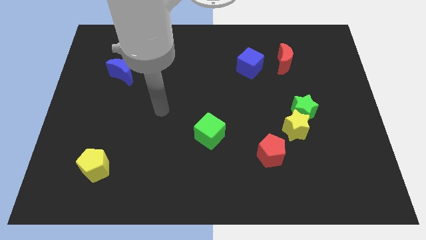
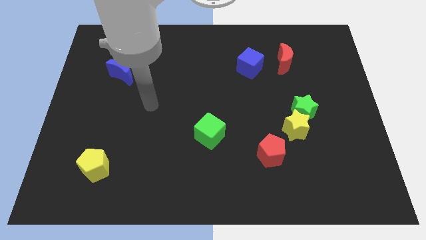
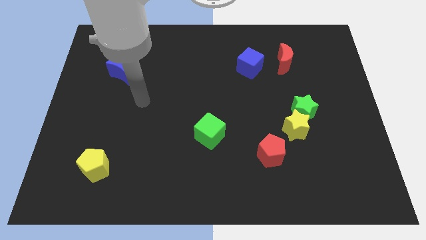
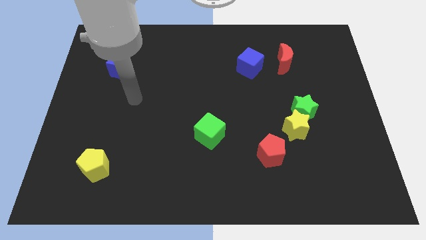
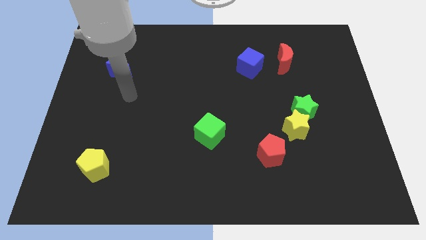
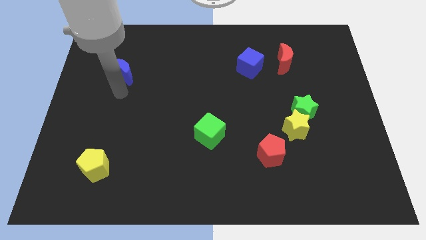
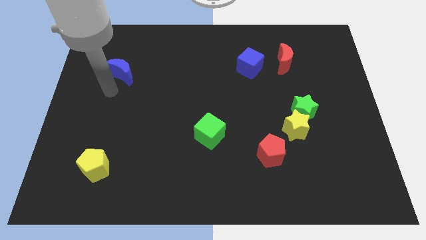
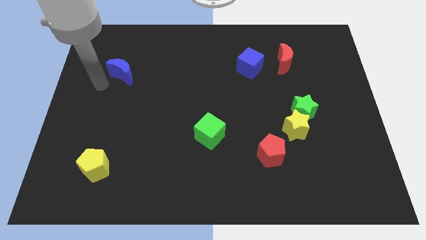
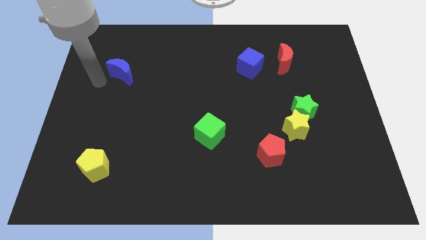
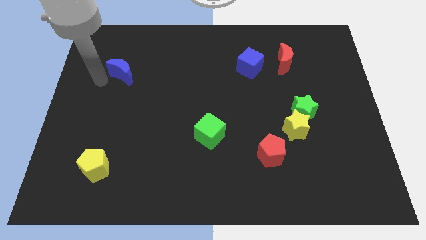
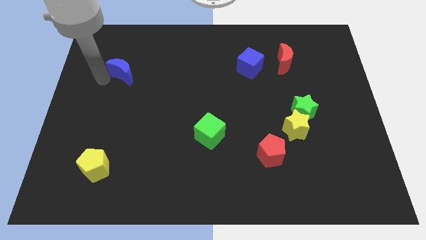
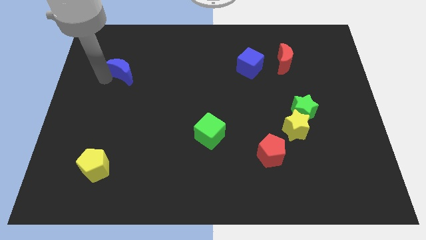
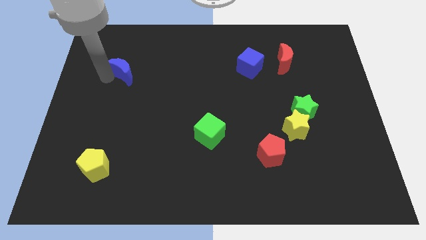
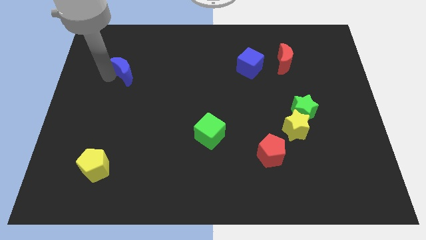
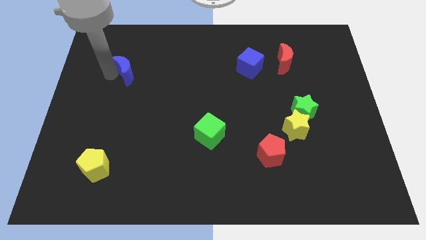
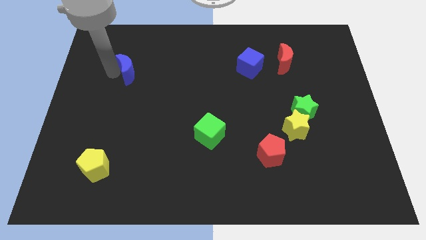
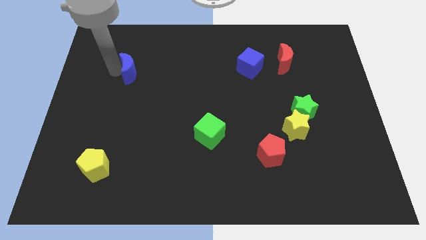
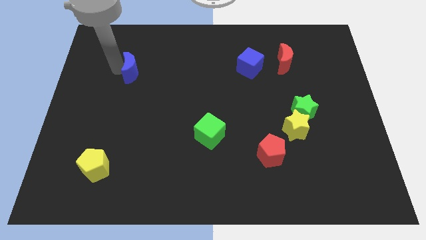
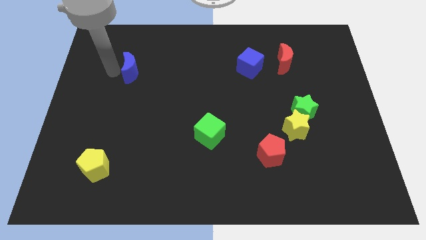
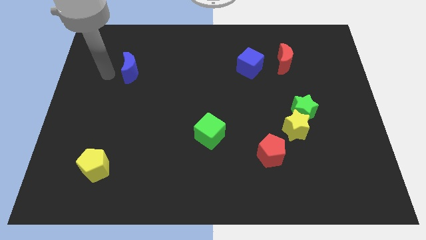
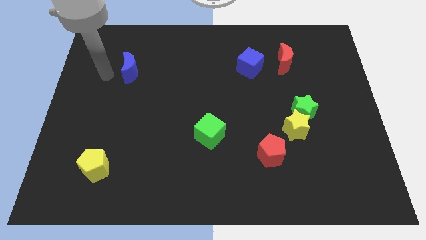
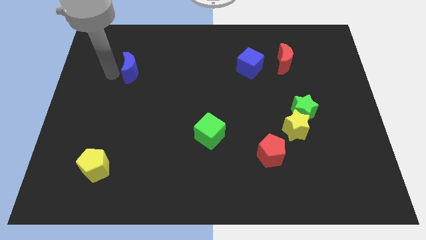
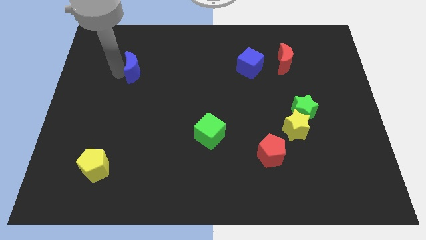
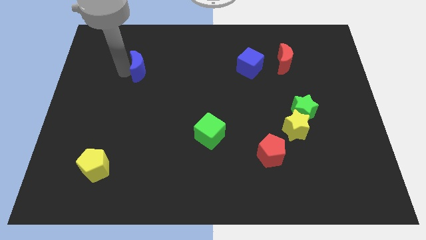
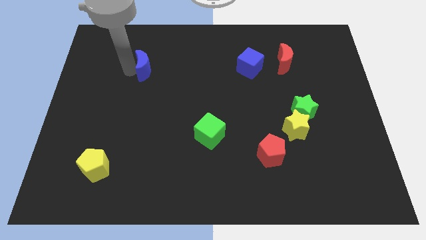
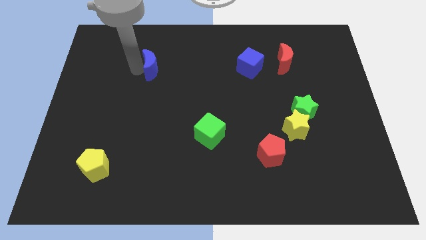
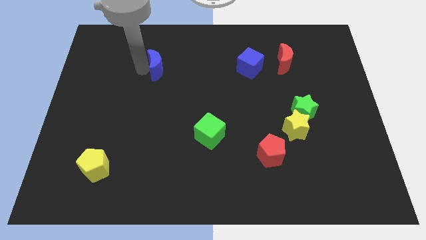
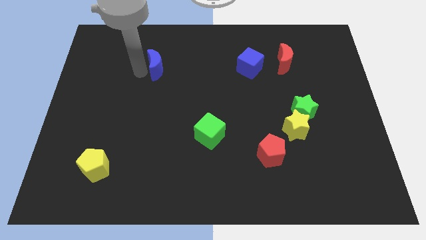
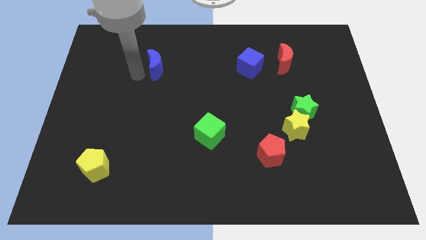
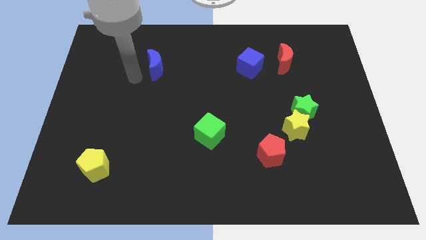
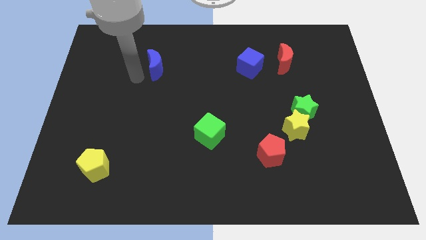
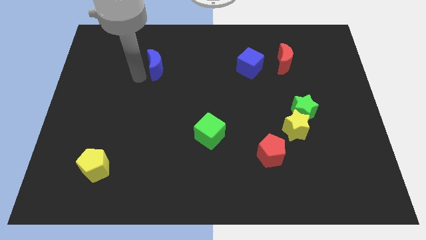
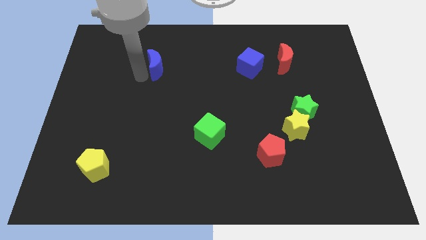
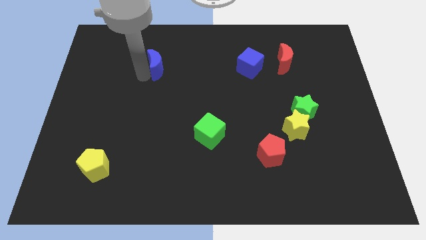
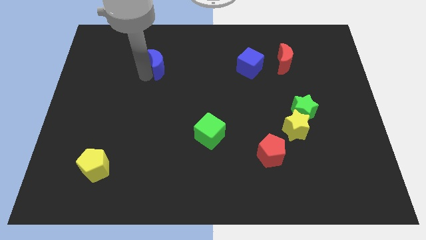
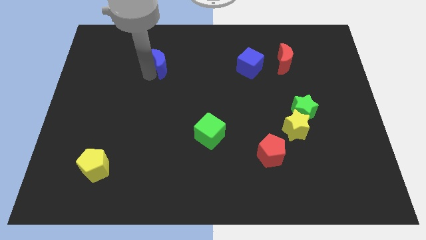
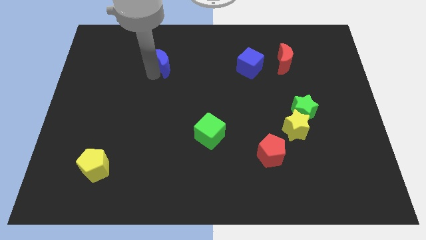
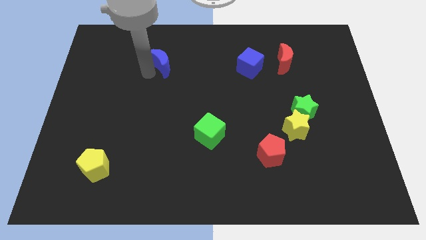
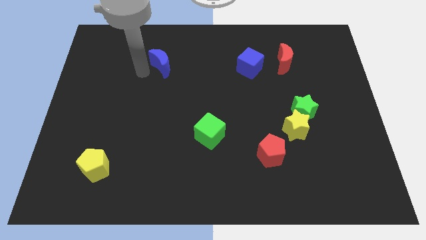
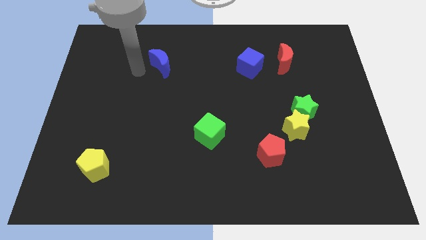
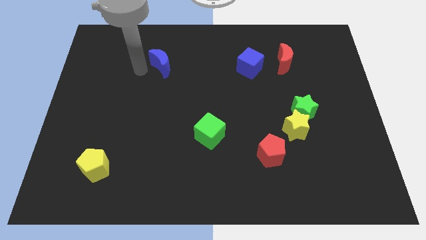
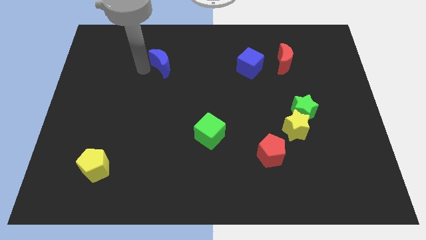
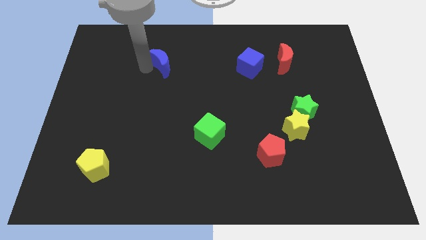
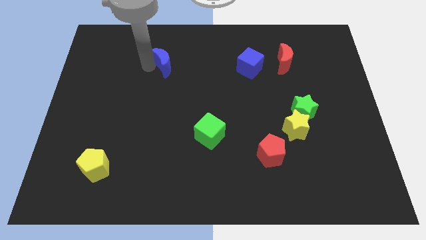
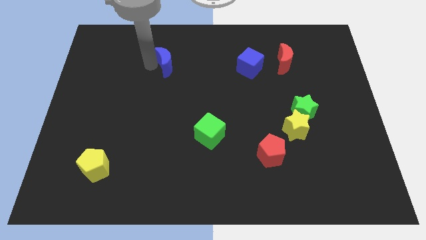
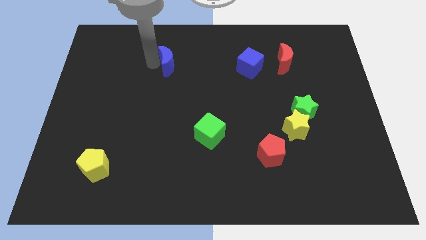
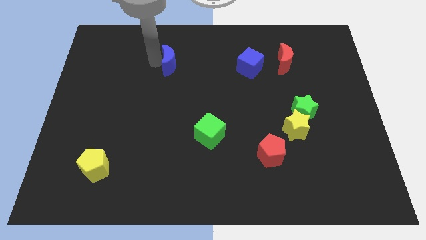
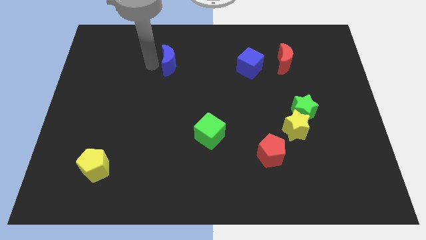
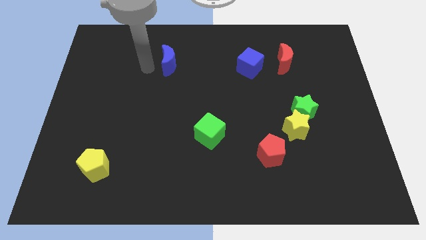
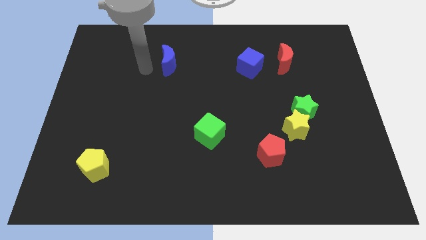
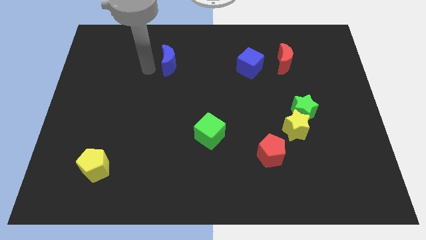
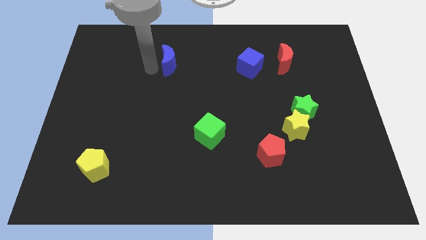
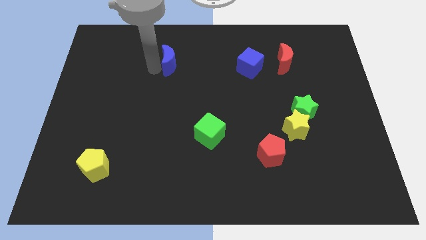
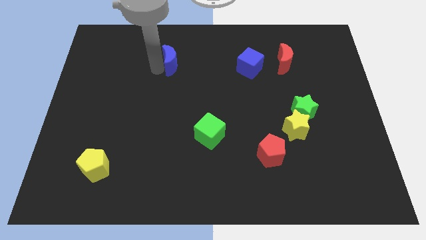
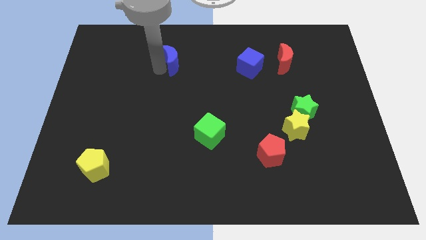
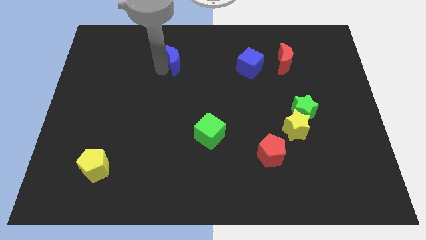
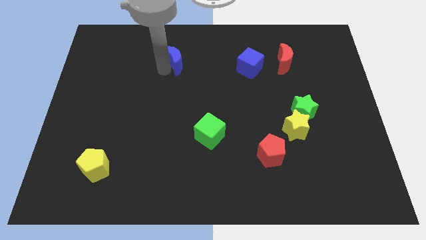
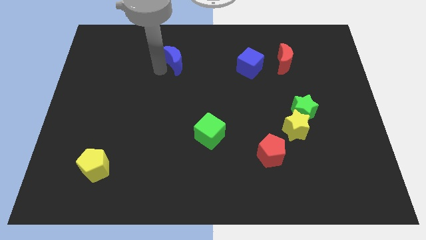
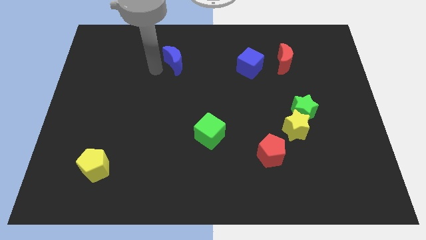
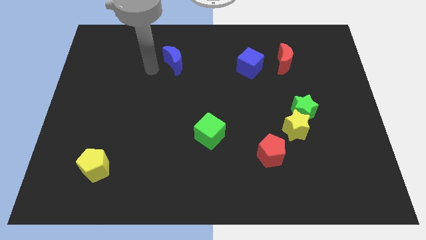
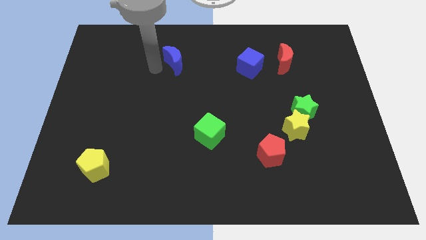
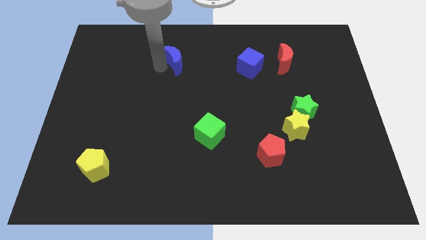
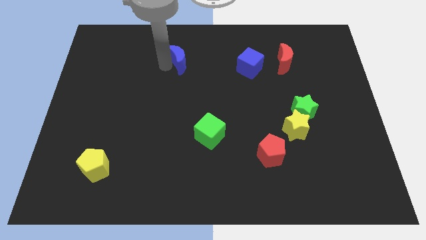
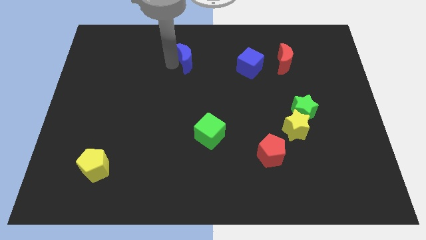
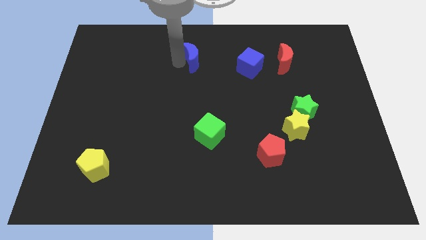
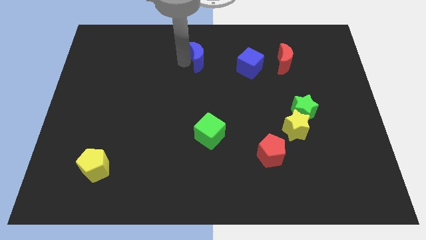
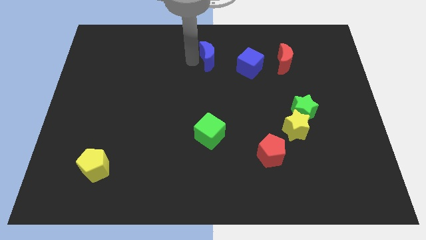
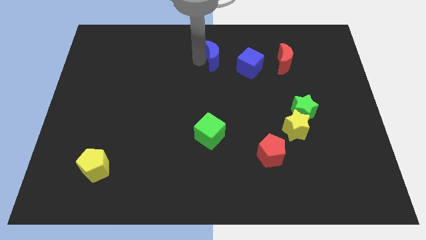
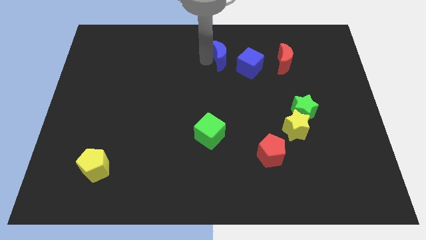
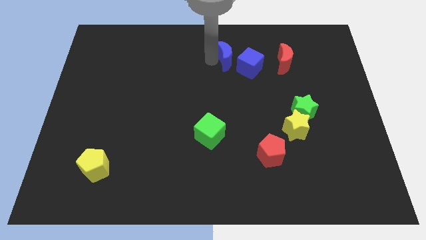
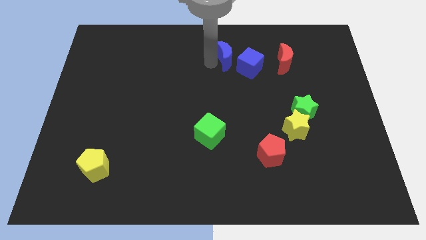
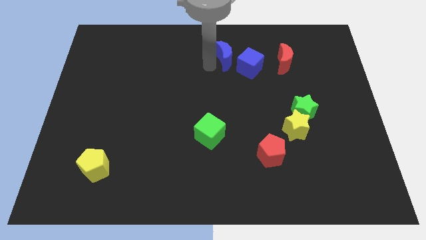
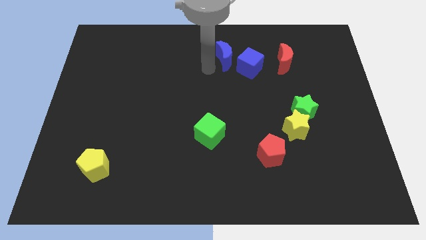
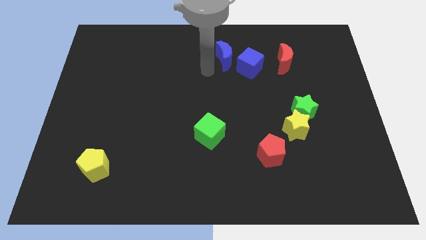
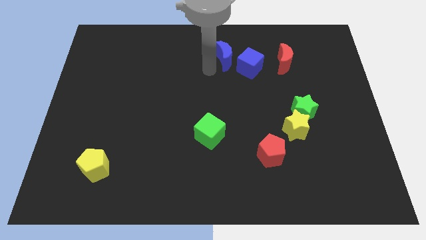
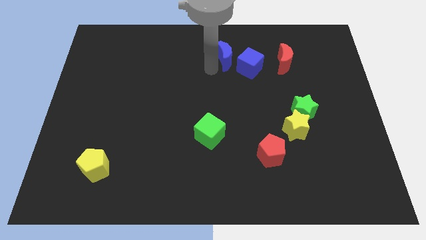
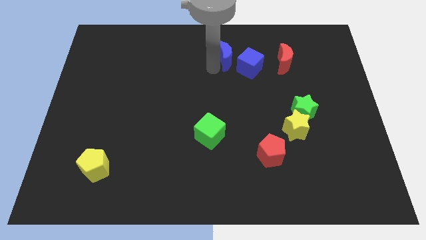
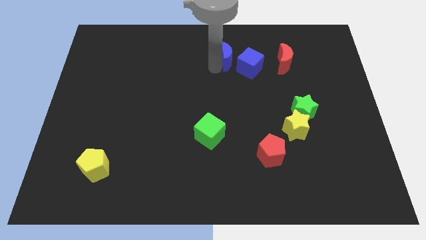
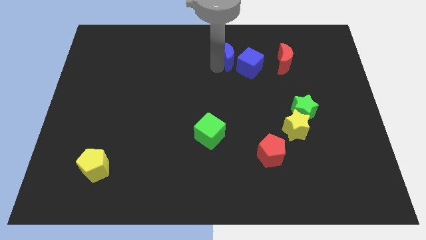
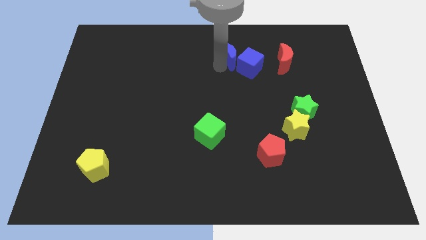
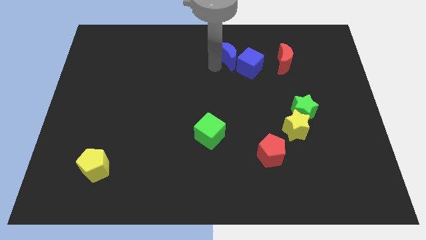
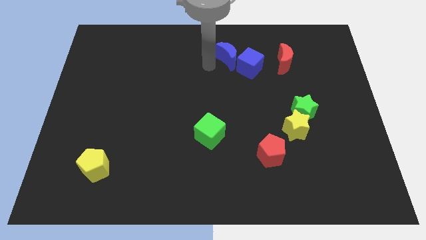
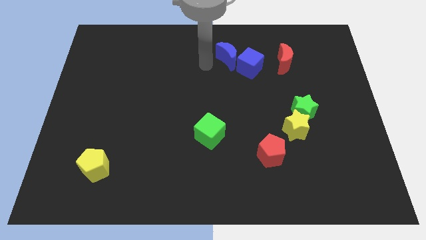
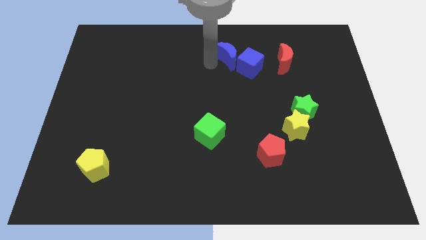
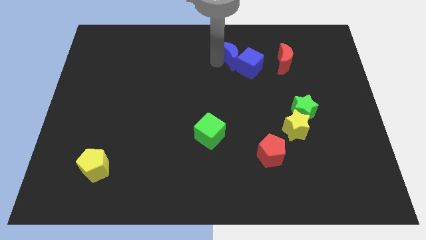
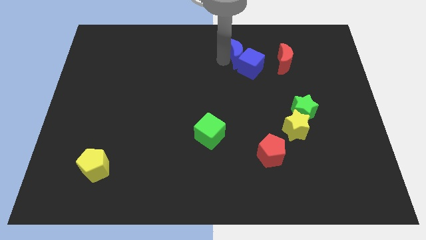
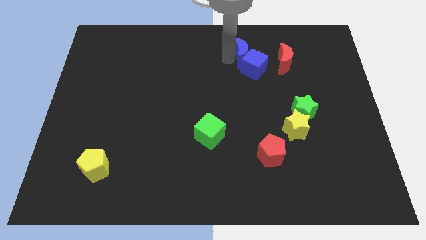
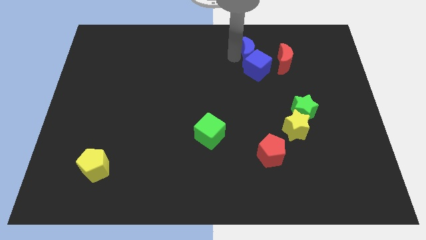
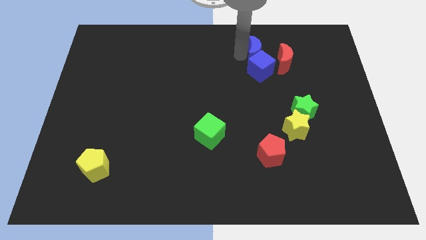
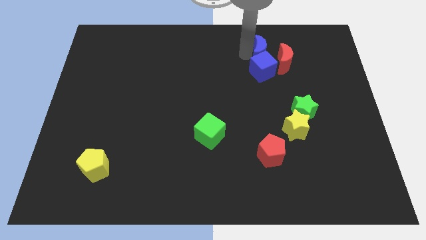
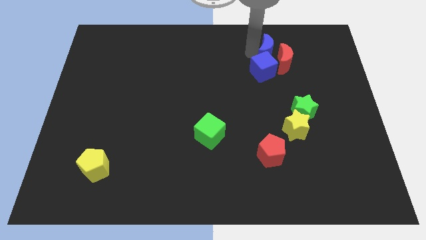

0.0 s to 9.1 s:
put the blue moon towards the red moon

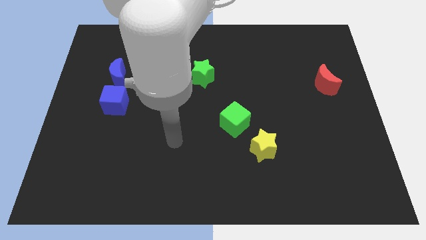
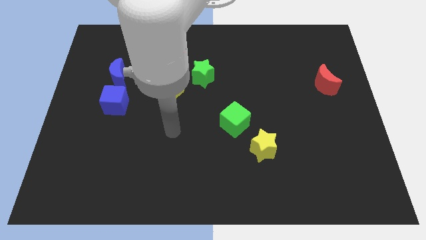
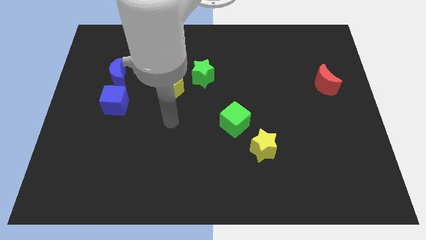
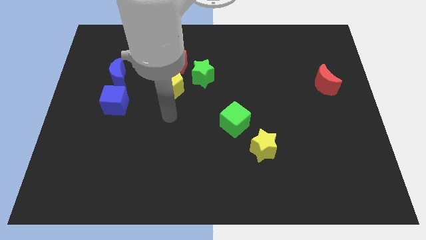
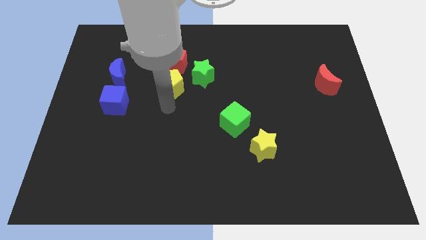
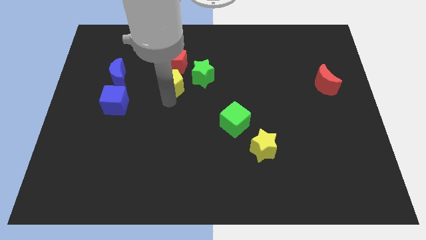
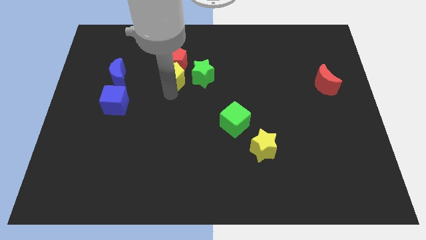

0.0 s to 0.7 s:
slide the yellow pentagon next to the red pentagon
